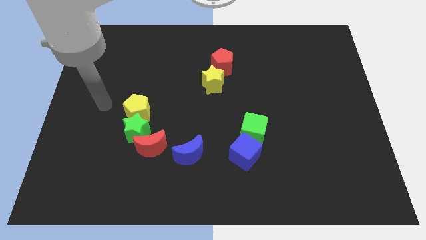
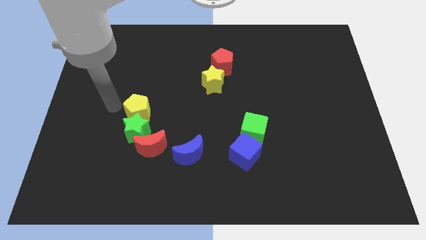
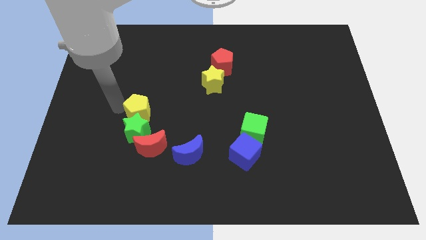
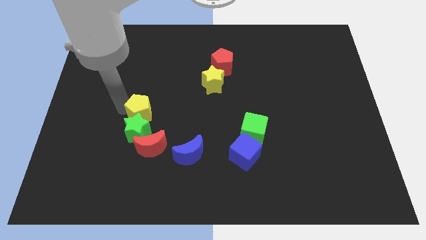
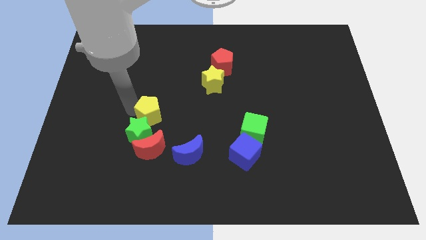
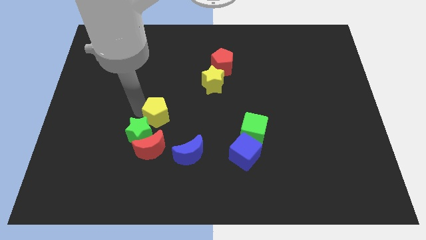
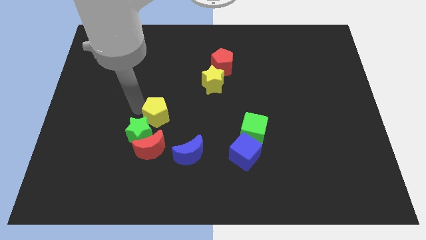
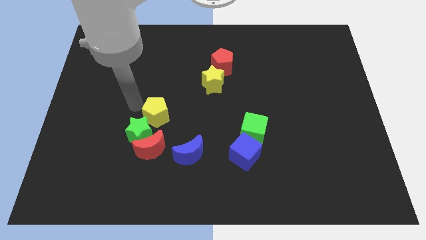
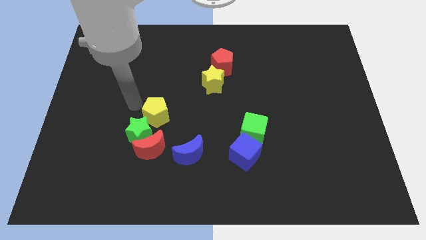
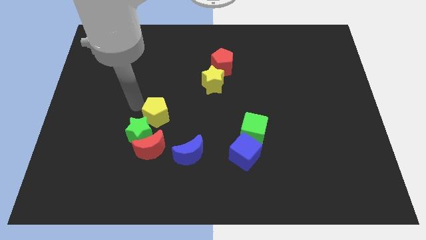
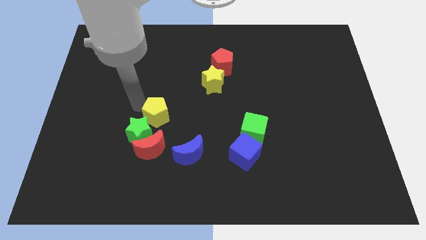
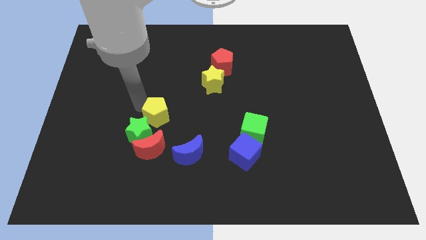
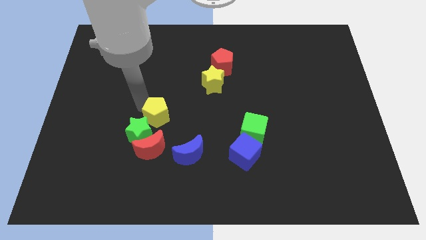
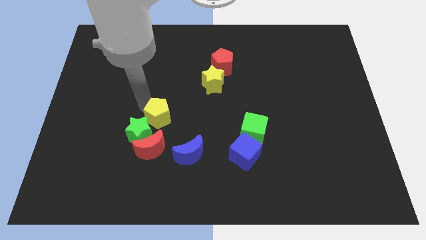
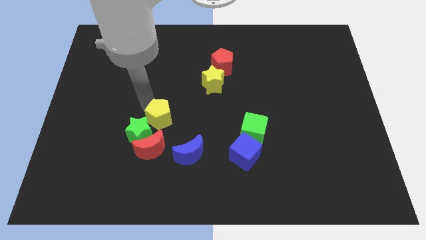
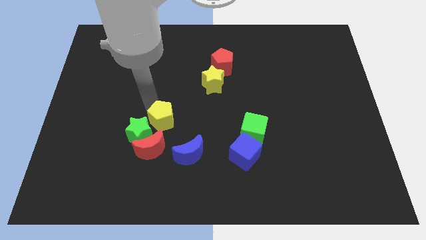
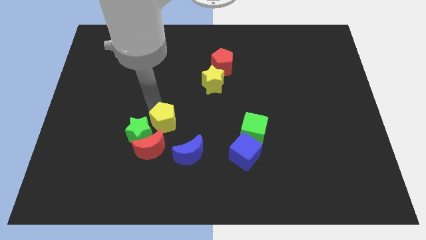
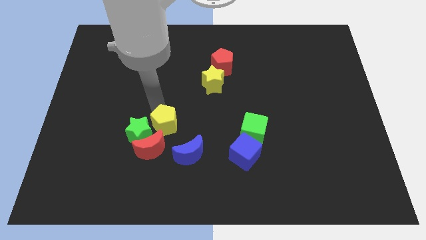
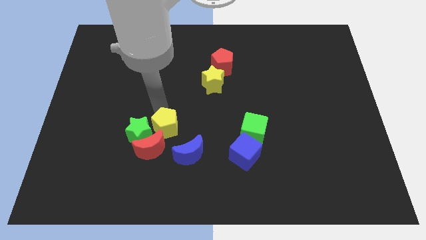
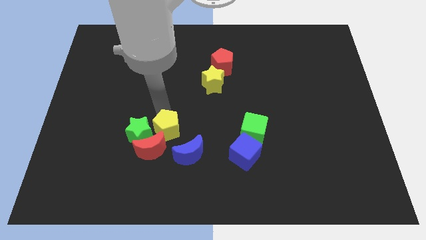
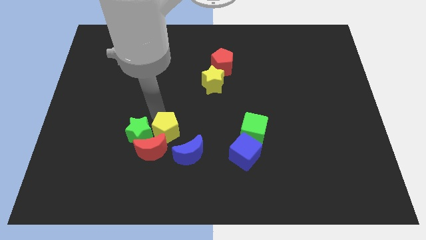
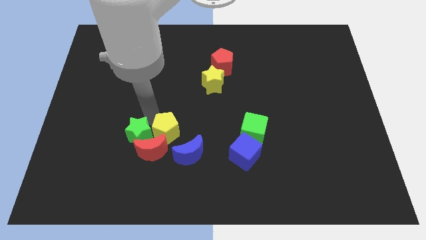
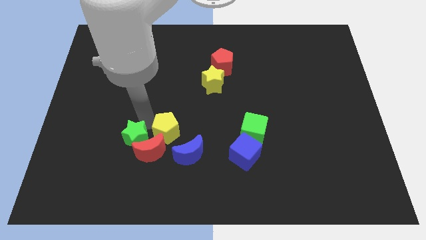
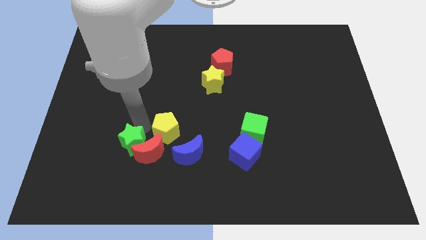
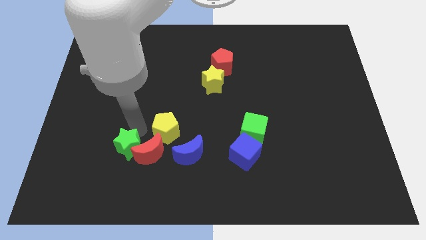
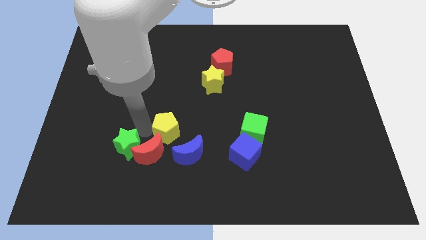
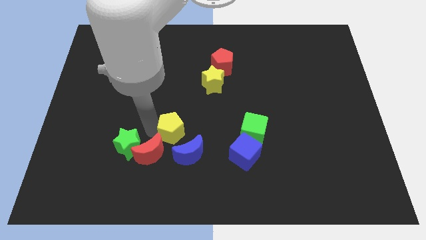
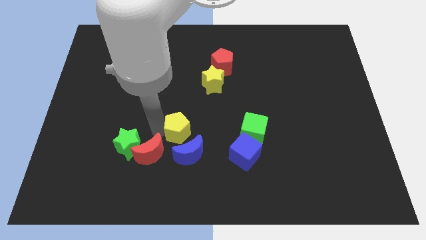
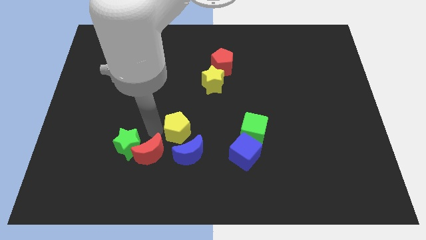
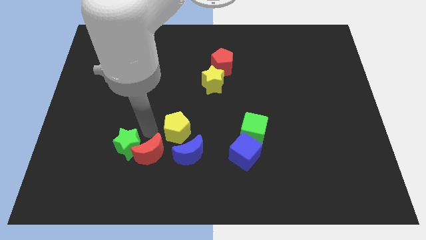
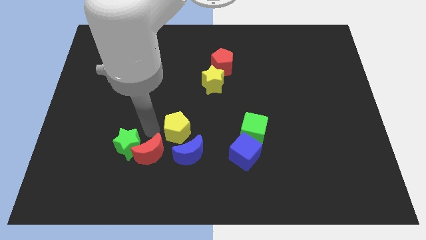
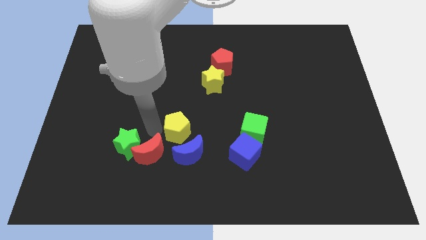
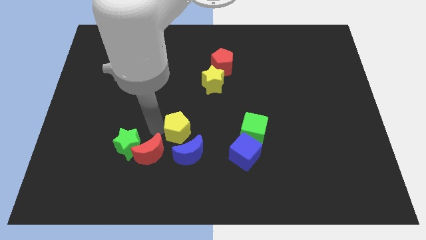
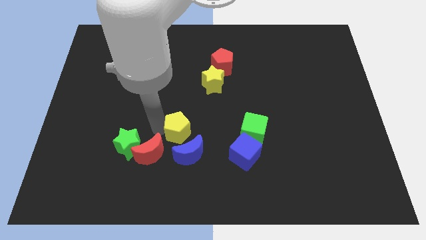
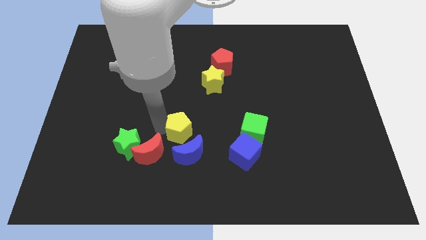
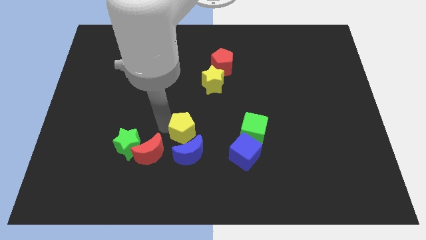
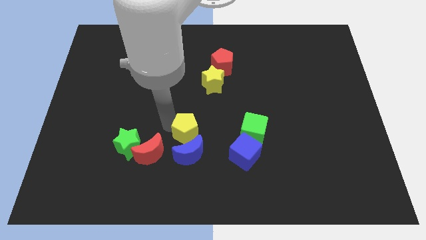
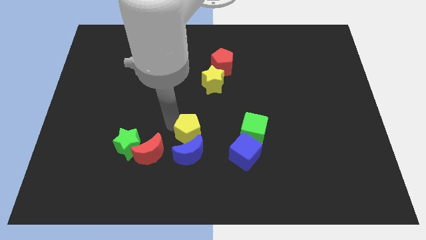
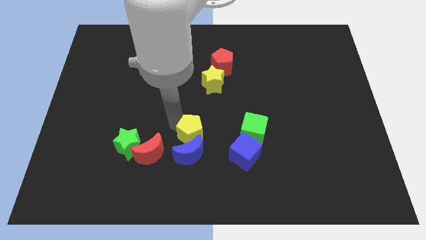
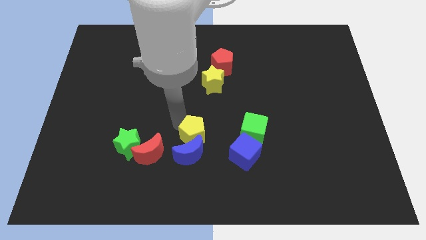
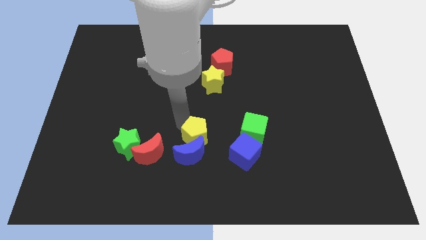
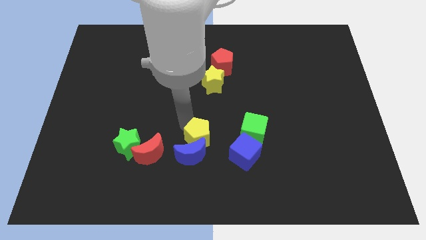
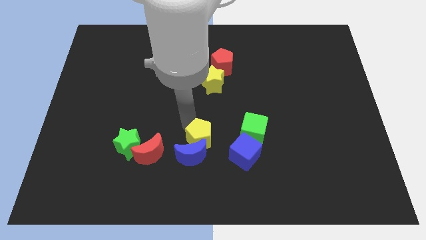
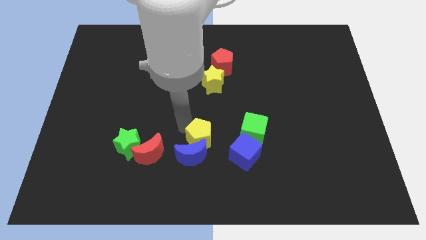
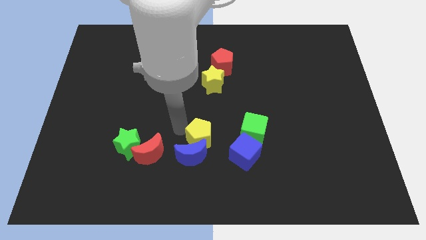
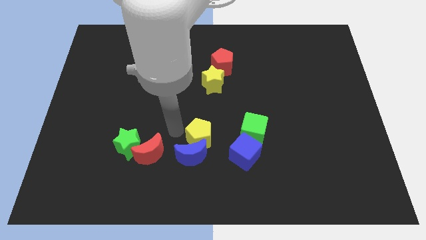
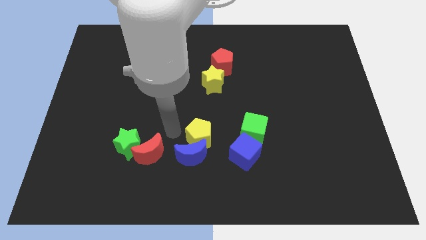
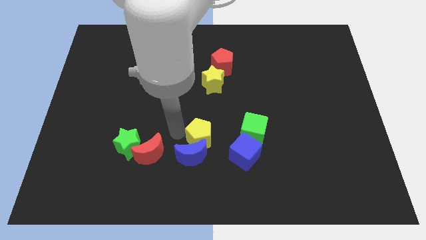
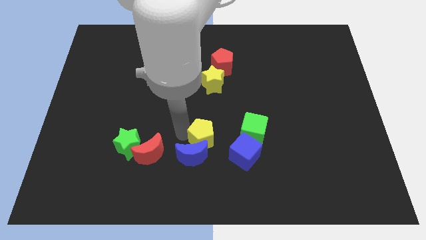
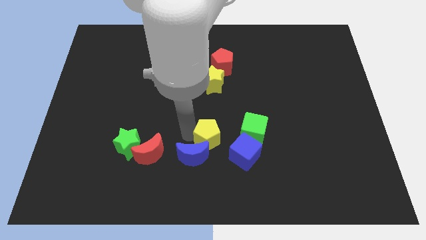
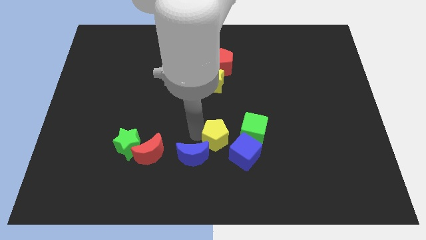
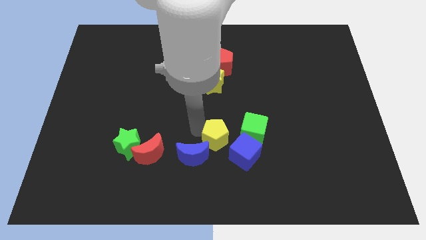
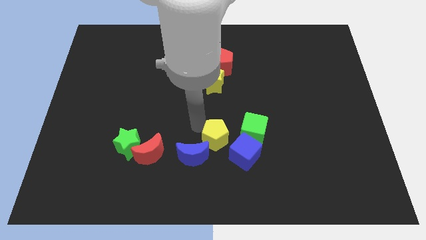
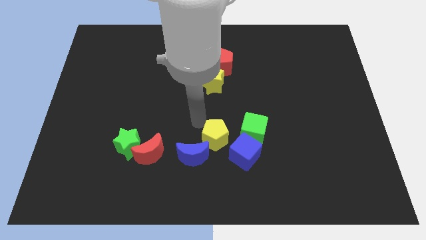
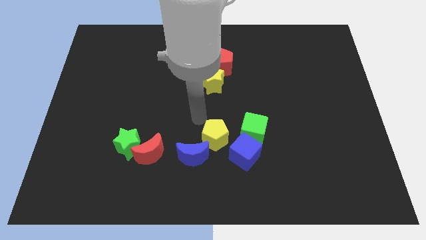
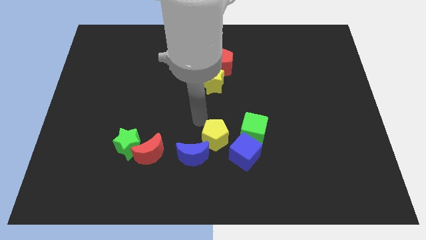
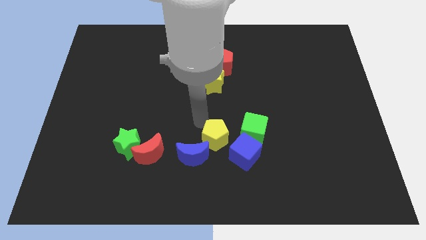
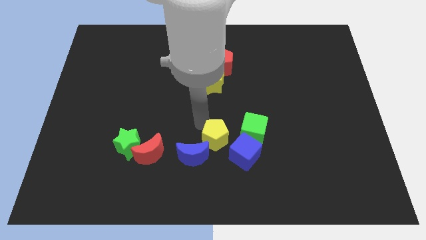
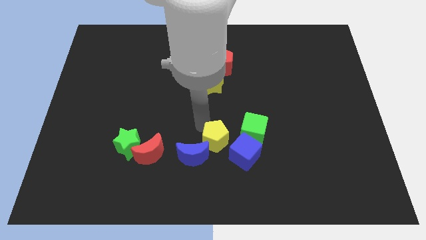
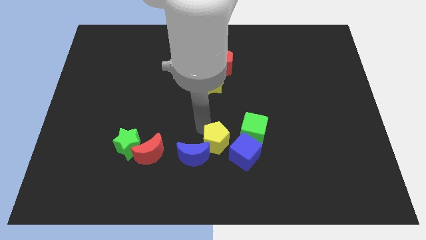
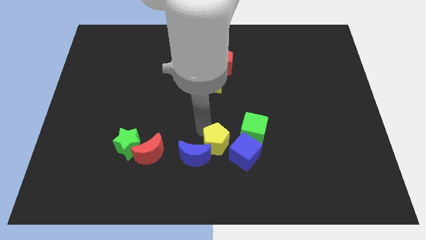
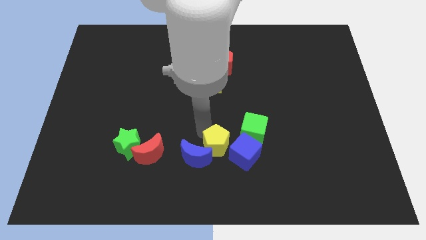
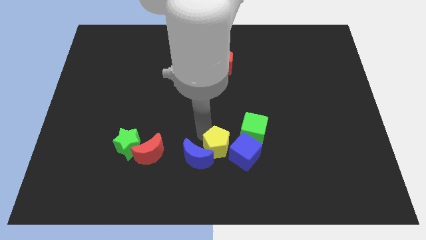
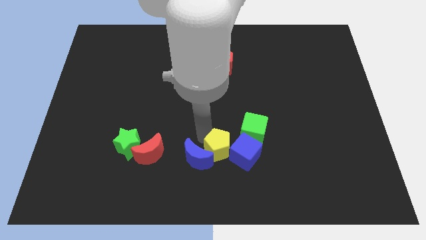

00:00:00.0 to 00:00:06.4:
slide the yellow pentagon next to the blue cube
